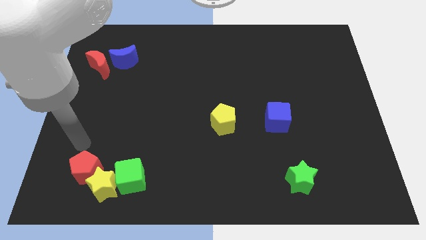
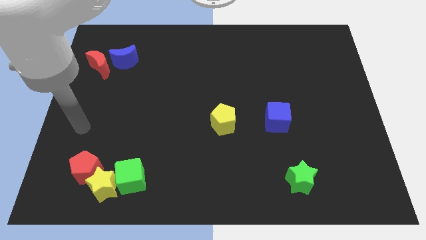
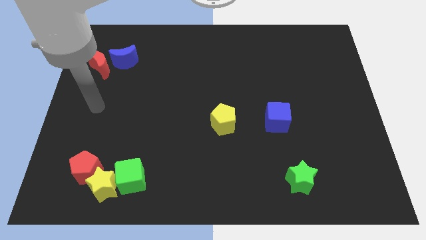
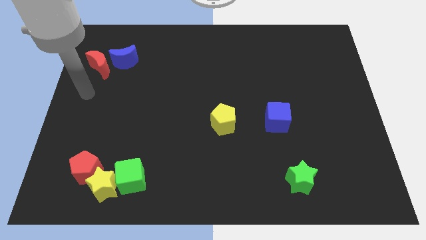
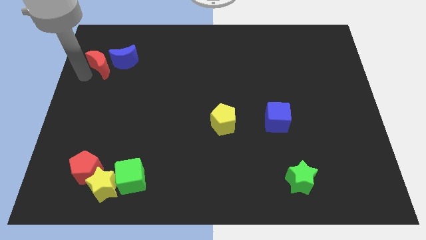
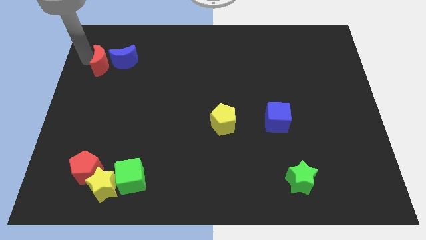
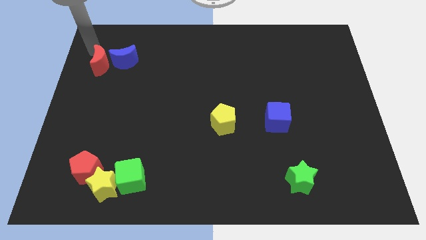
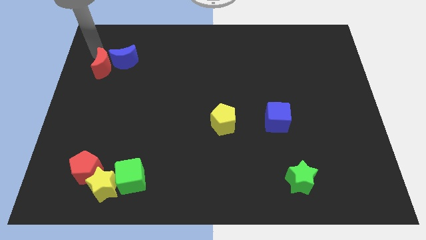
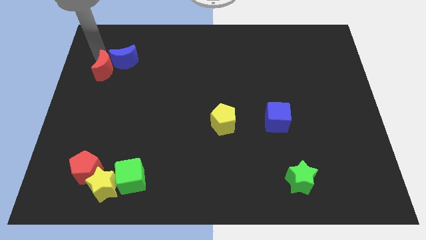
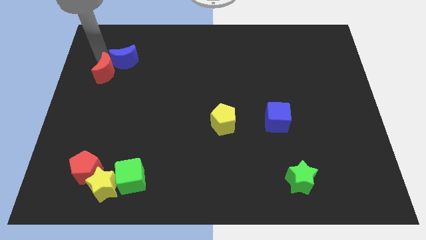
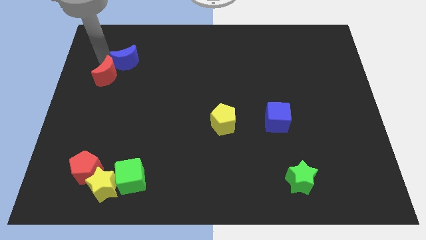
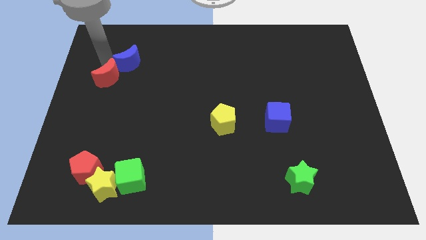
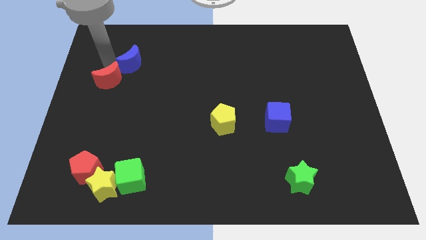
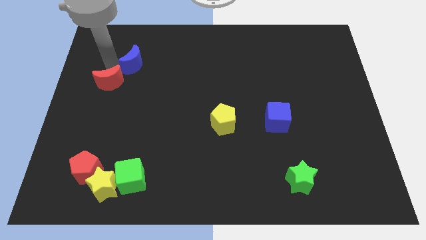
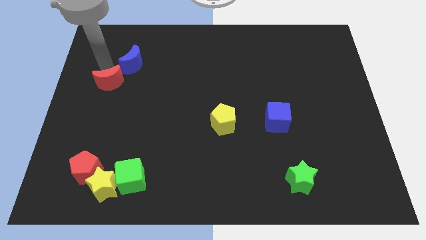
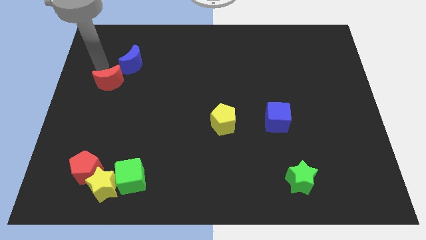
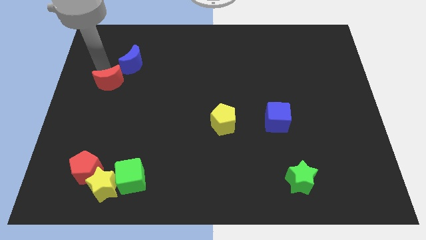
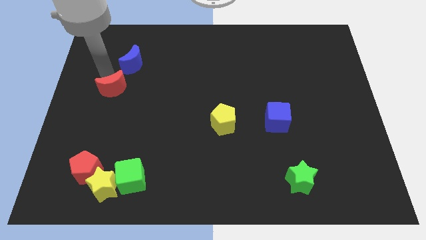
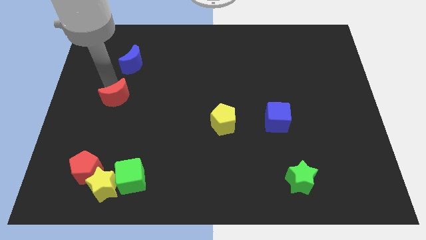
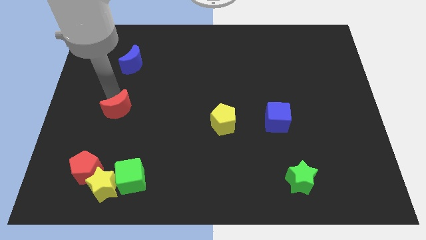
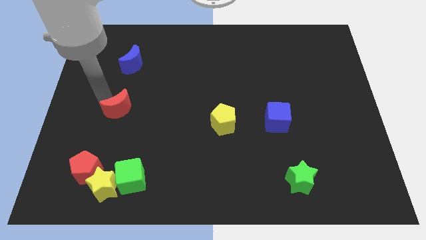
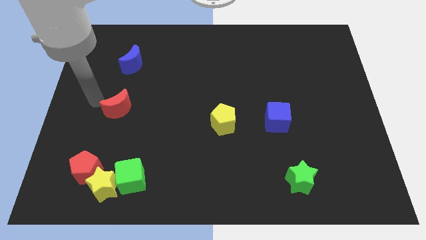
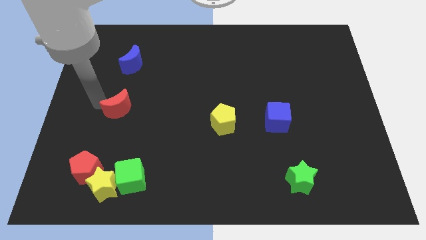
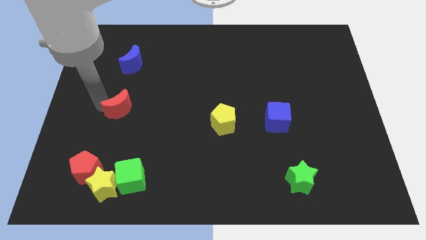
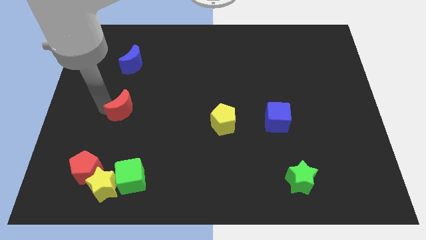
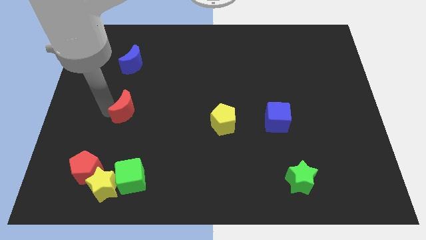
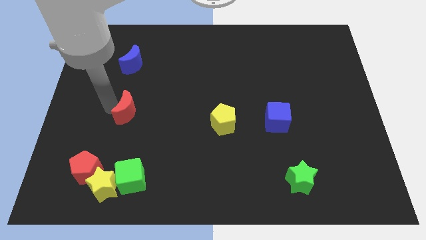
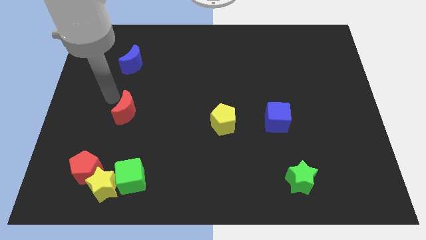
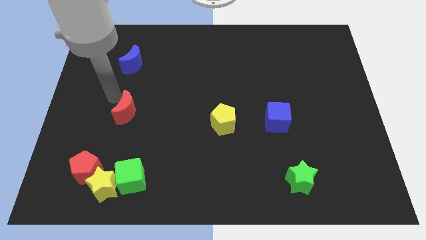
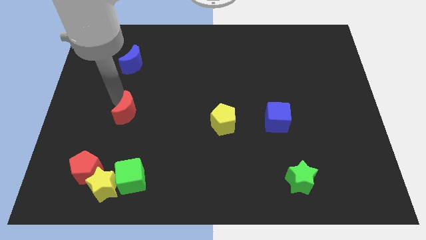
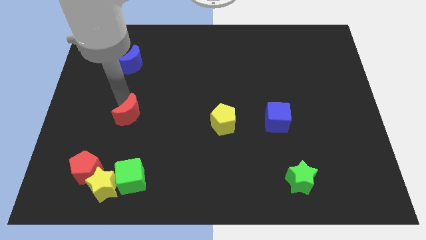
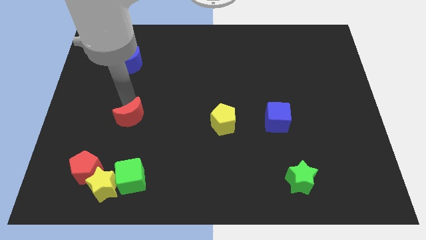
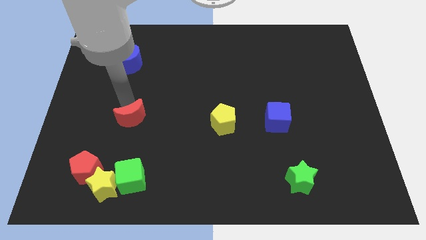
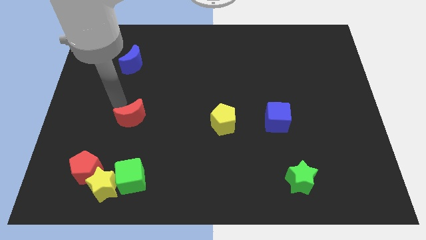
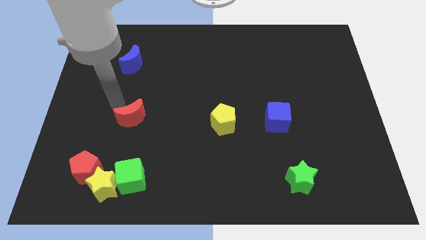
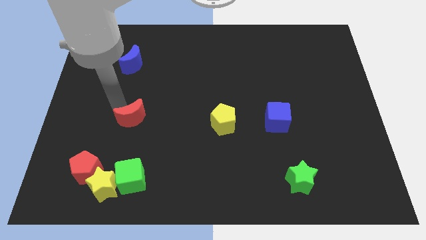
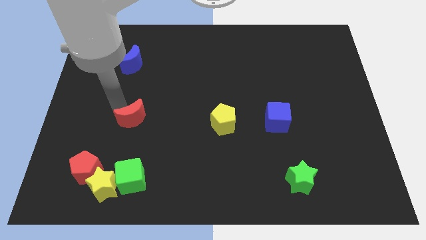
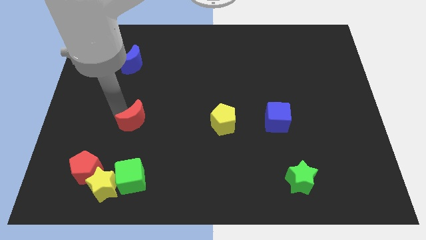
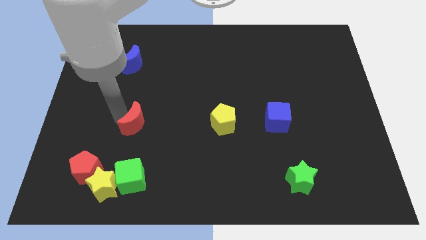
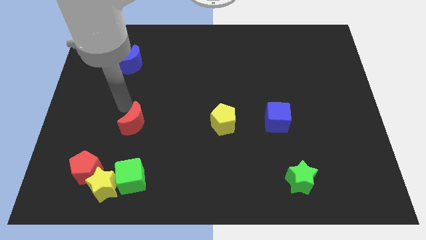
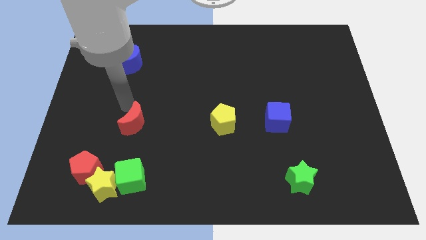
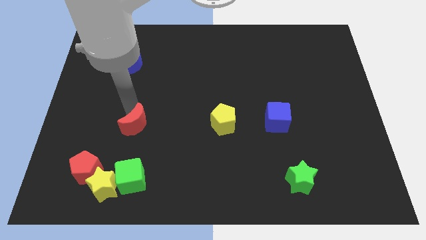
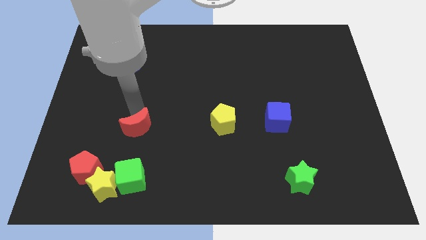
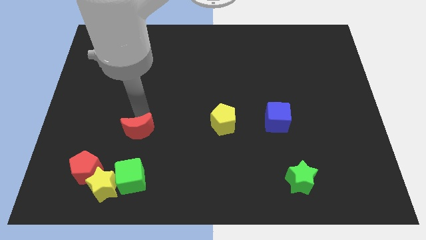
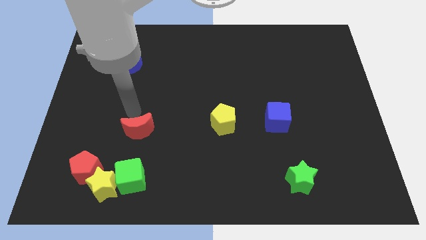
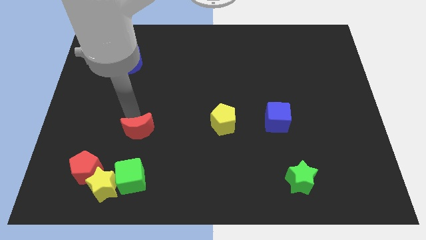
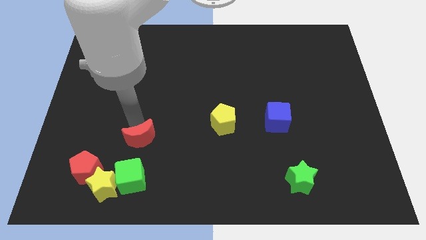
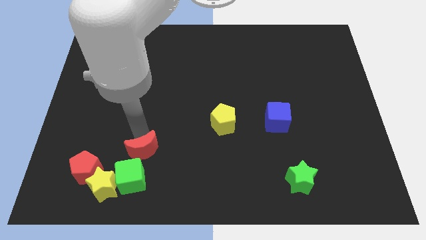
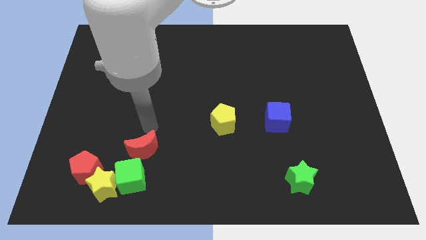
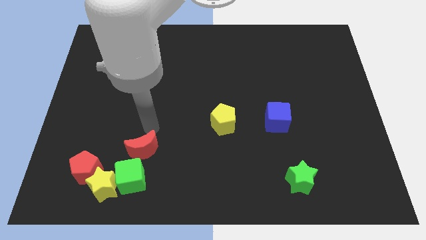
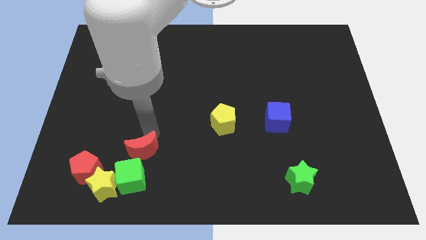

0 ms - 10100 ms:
slide the red moon just right of the red pentagon

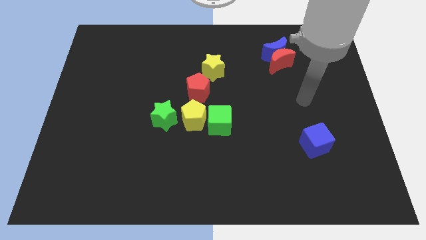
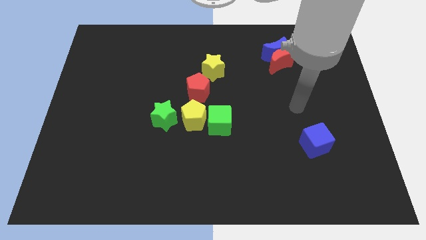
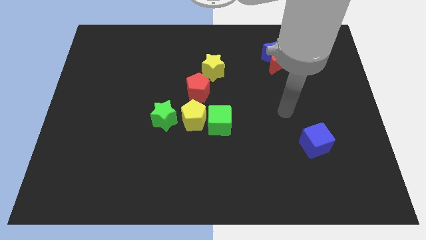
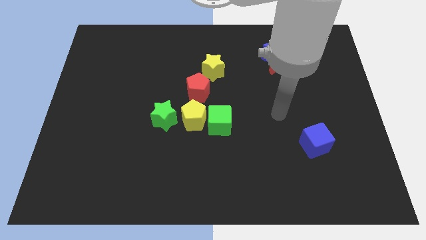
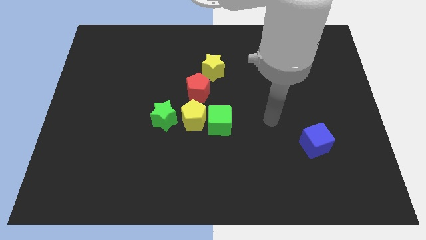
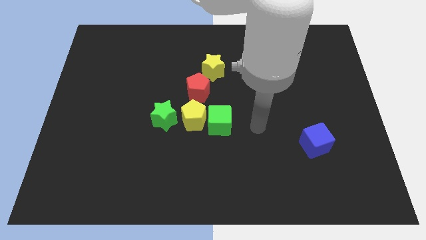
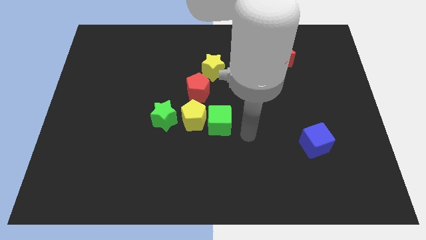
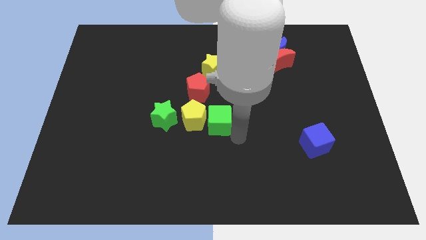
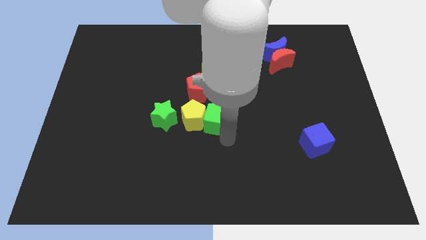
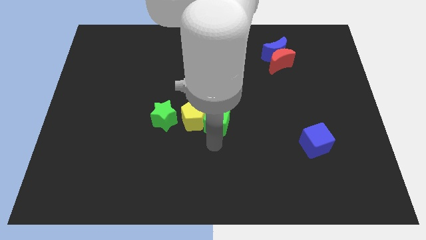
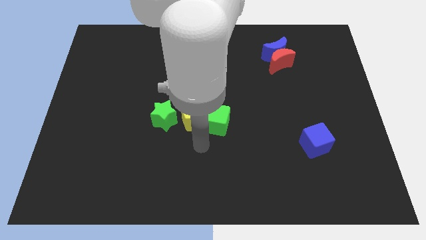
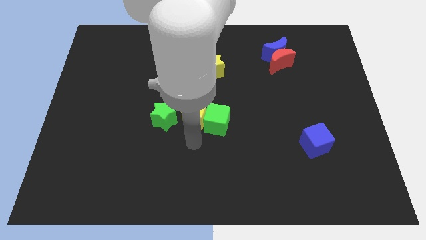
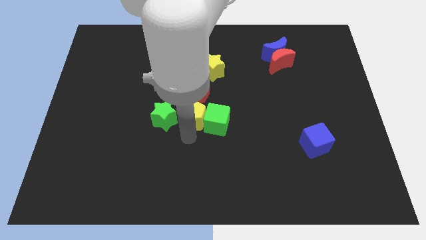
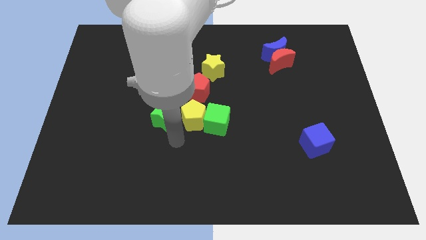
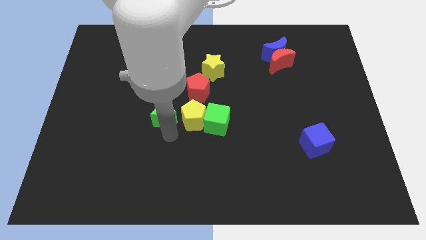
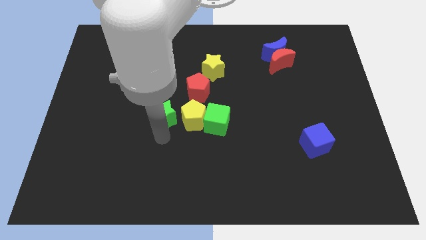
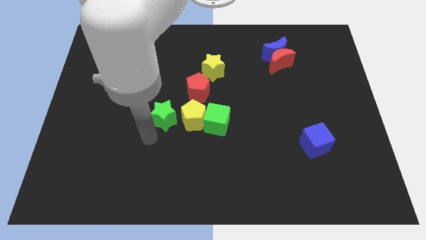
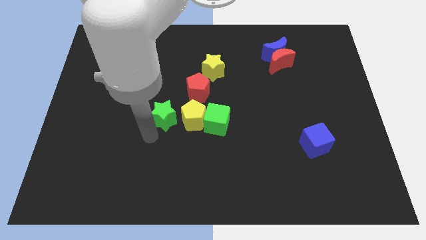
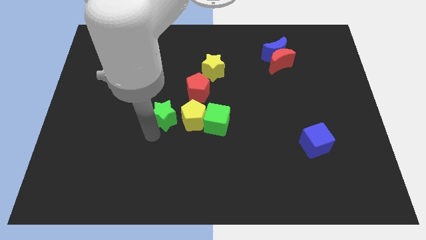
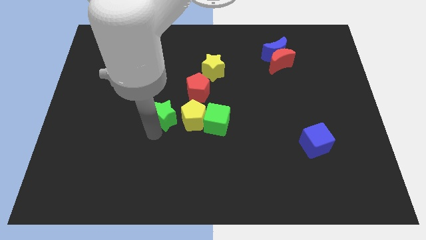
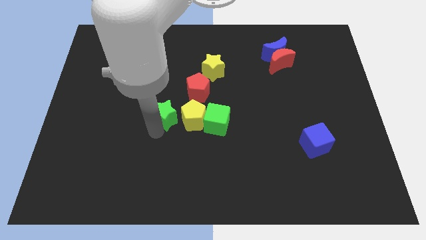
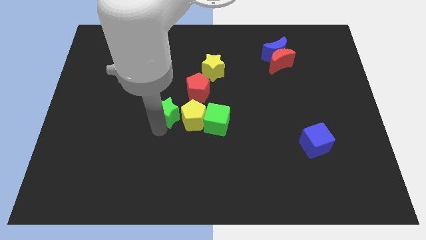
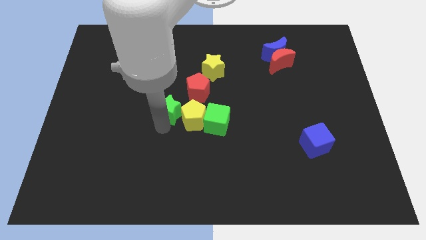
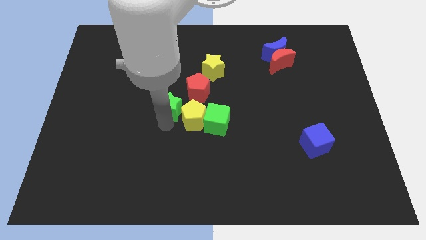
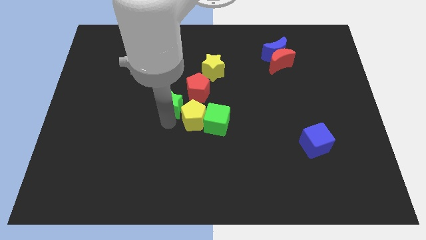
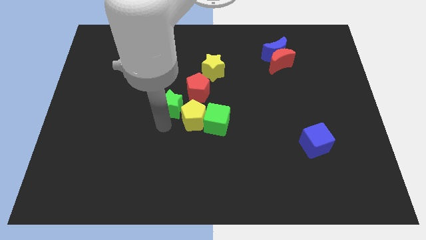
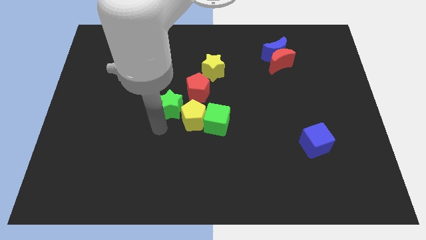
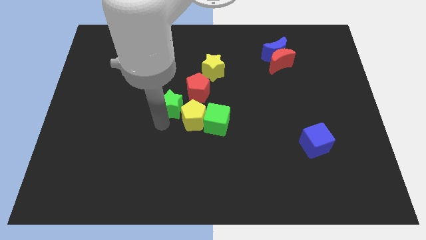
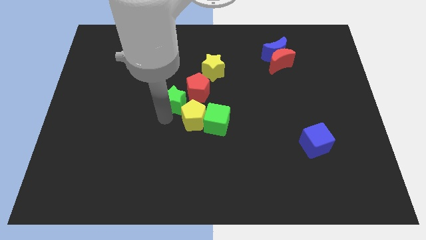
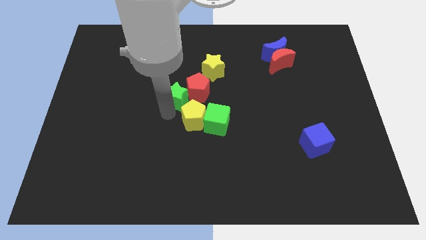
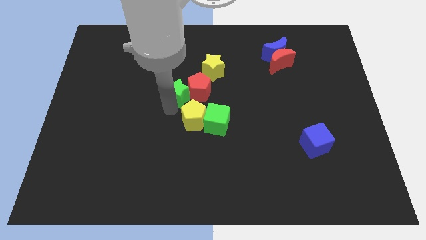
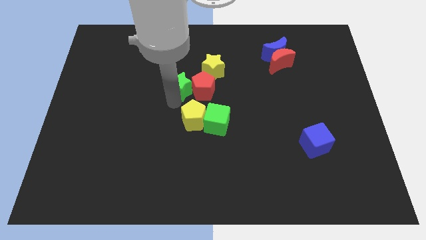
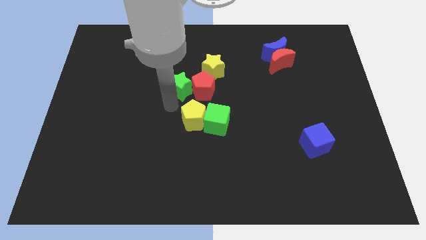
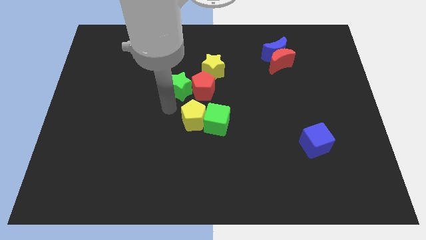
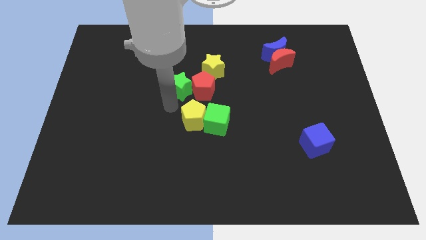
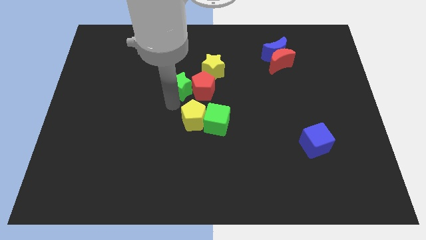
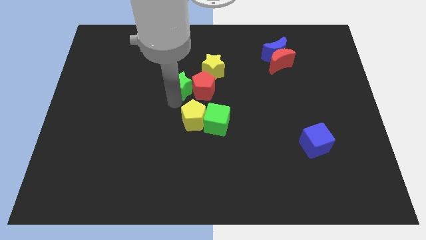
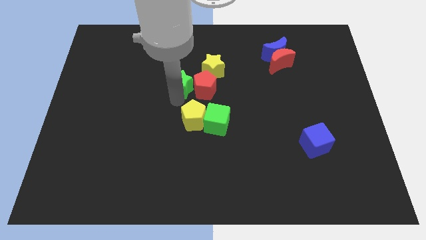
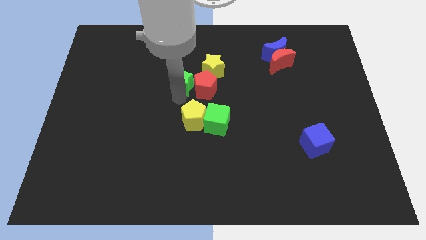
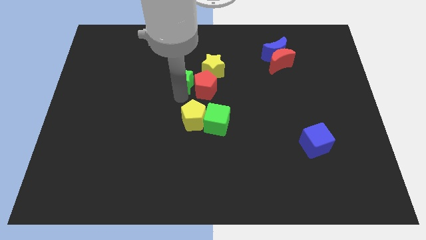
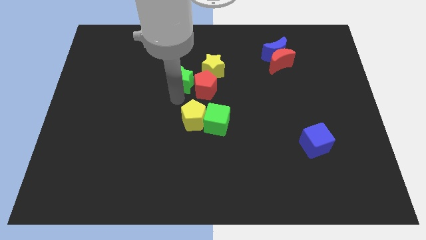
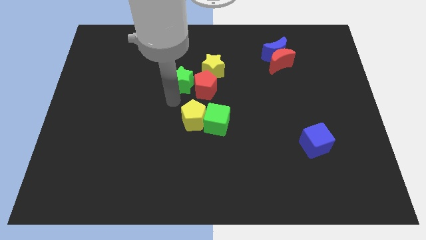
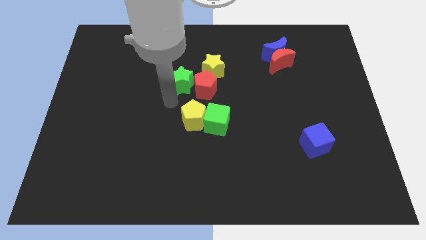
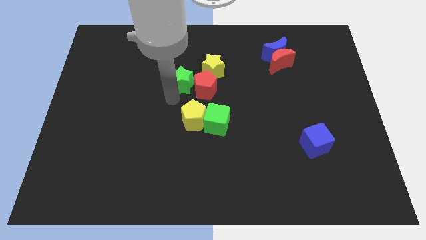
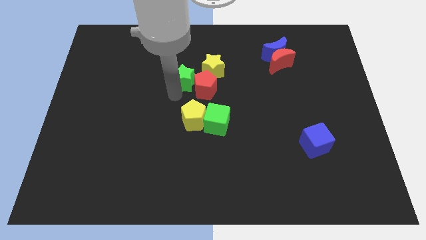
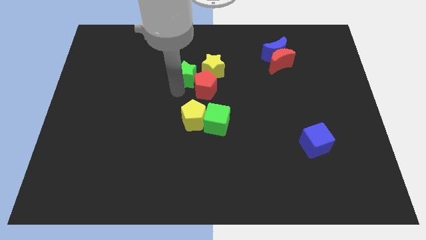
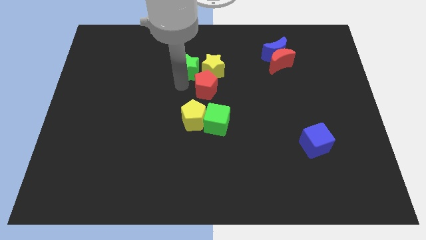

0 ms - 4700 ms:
put the green star to the top left of the yellow star
